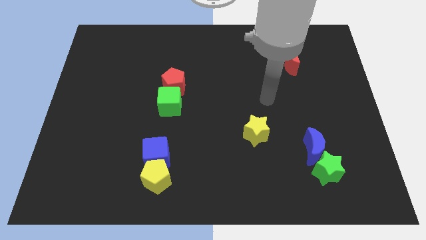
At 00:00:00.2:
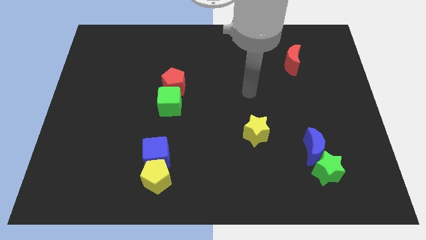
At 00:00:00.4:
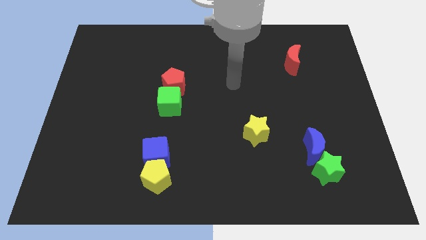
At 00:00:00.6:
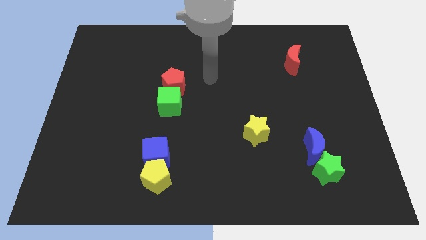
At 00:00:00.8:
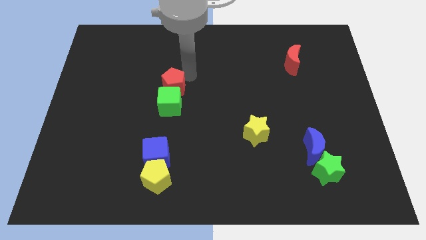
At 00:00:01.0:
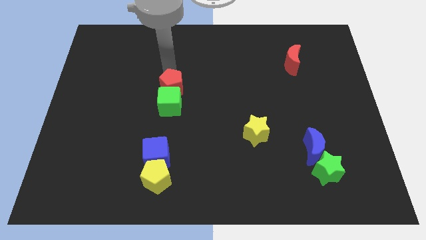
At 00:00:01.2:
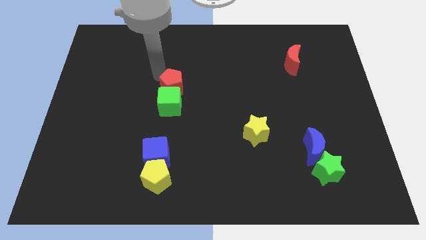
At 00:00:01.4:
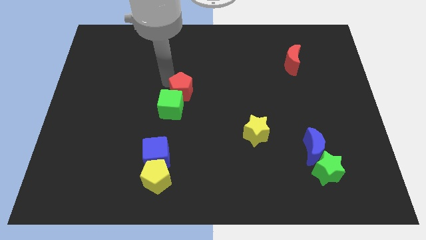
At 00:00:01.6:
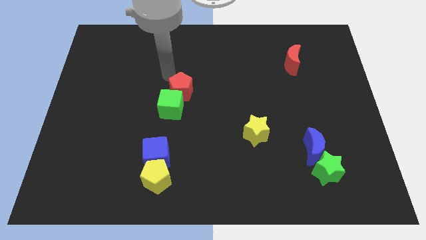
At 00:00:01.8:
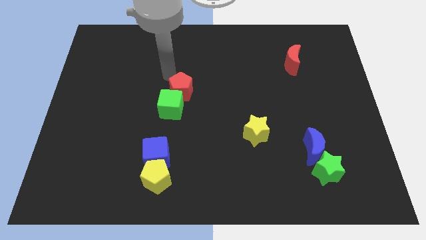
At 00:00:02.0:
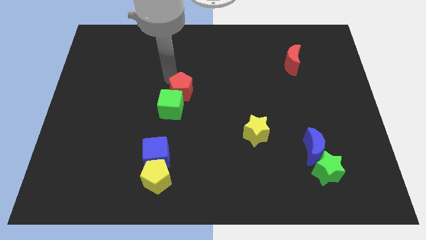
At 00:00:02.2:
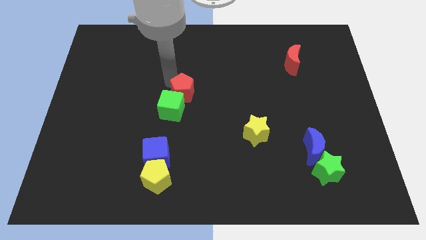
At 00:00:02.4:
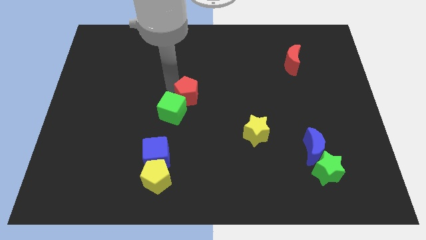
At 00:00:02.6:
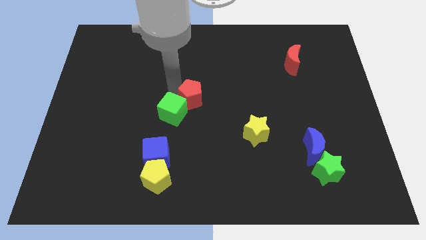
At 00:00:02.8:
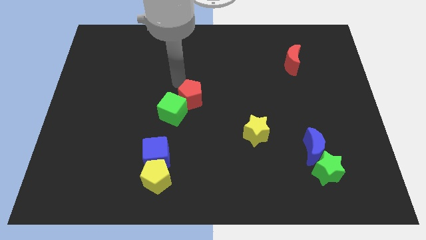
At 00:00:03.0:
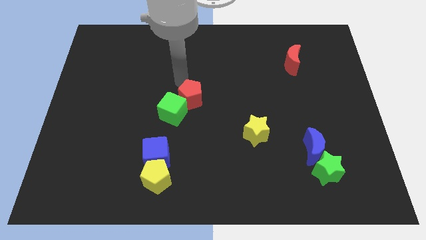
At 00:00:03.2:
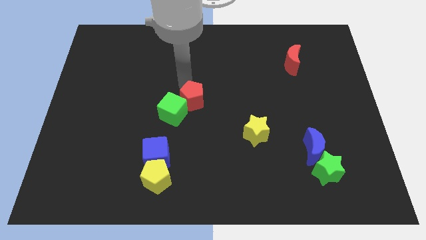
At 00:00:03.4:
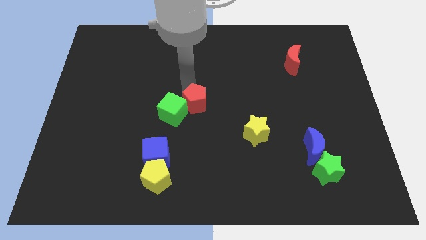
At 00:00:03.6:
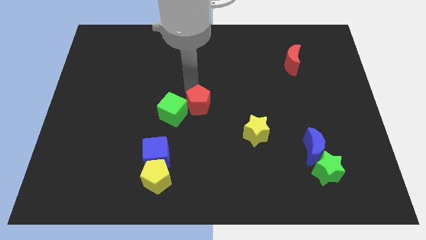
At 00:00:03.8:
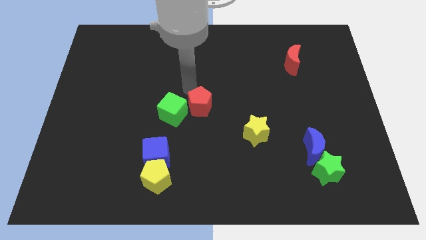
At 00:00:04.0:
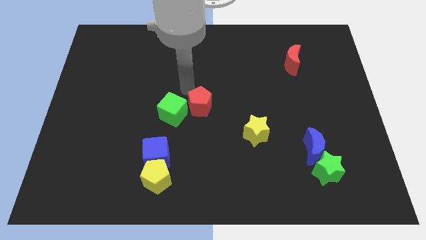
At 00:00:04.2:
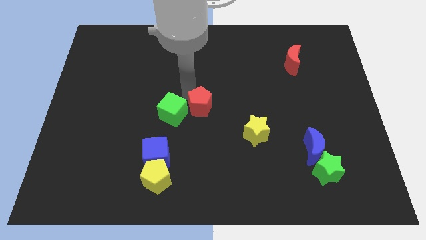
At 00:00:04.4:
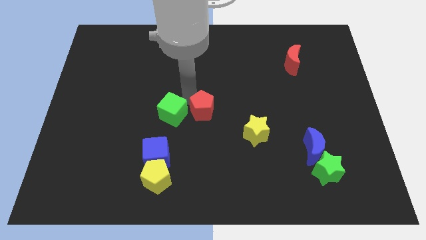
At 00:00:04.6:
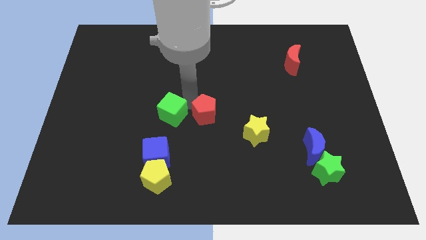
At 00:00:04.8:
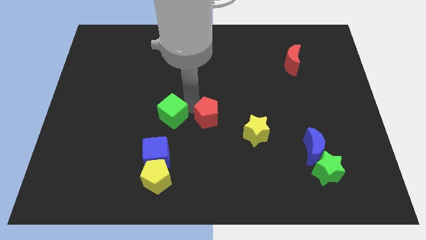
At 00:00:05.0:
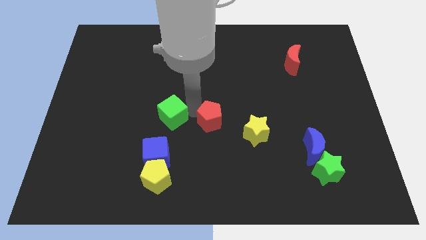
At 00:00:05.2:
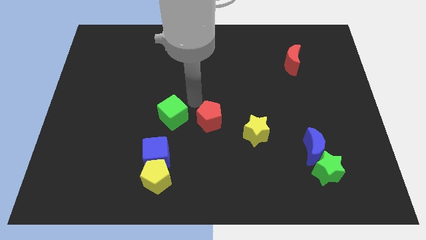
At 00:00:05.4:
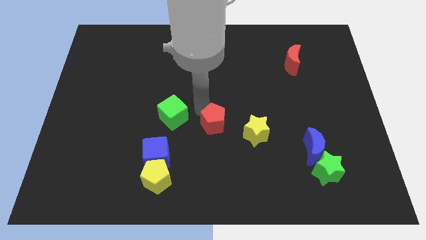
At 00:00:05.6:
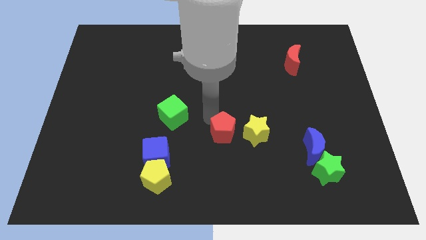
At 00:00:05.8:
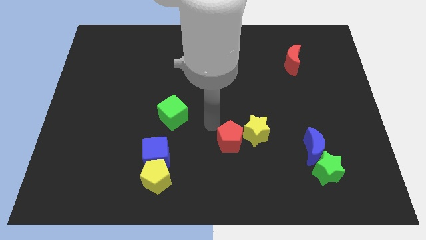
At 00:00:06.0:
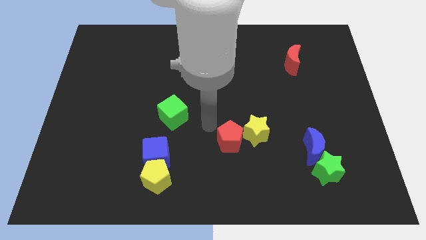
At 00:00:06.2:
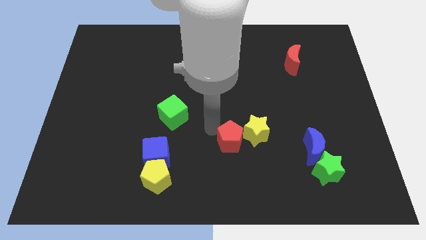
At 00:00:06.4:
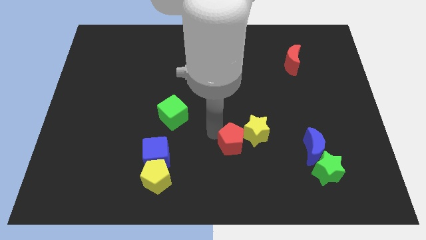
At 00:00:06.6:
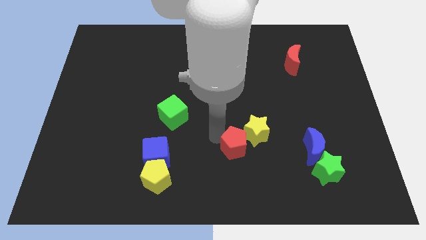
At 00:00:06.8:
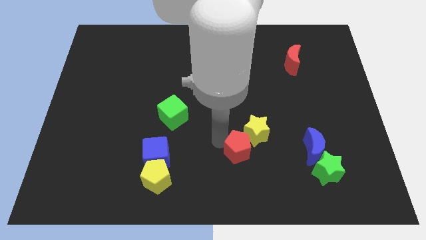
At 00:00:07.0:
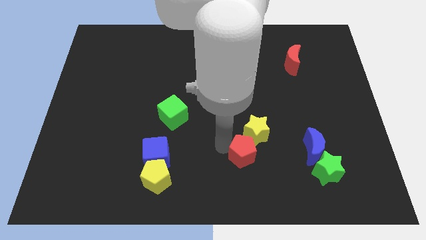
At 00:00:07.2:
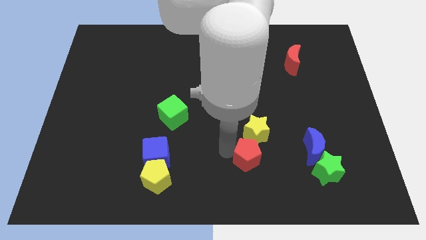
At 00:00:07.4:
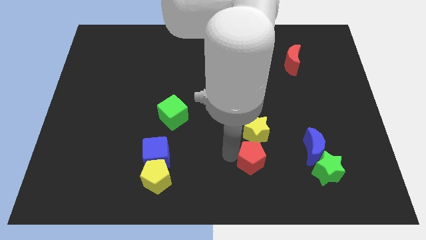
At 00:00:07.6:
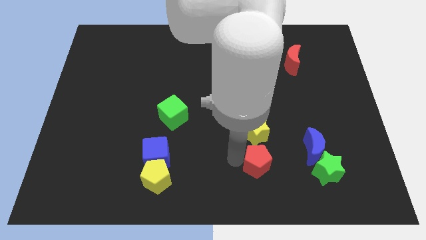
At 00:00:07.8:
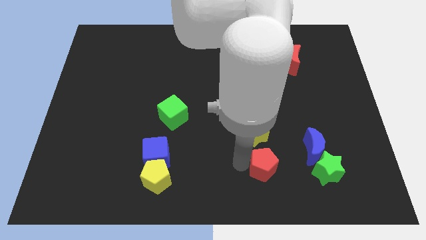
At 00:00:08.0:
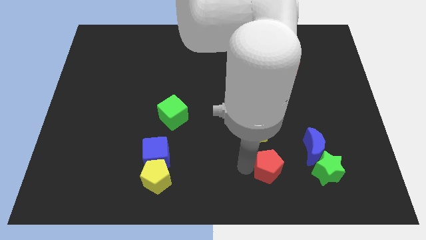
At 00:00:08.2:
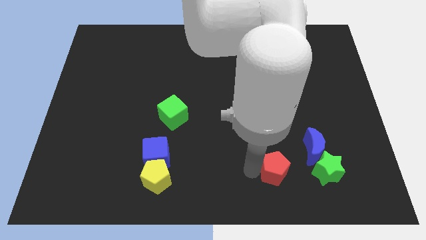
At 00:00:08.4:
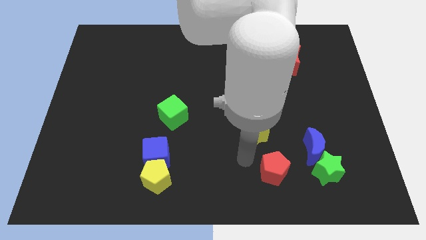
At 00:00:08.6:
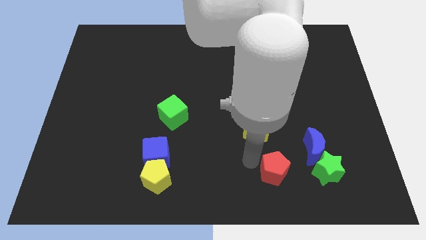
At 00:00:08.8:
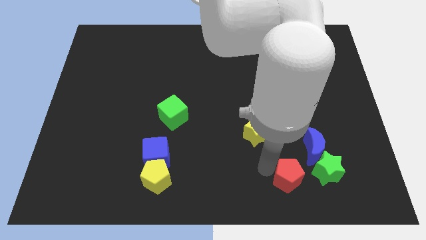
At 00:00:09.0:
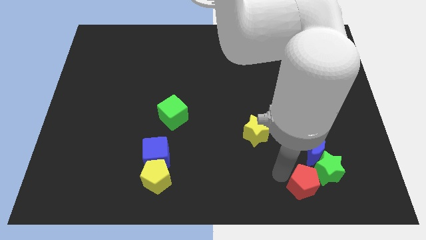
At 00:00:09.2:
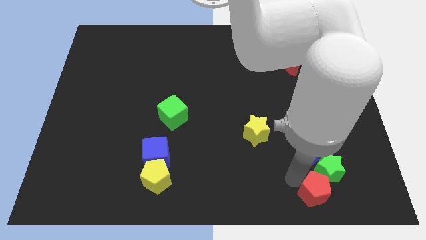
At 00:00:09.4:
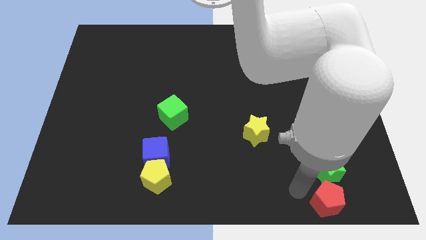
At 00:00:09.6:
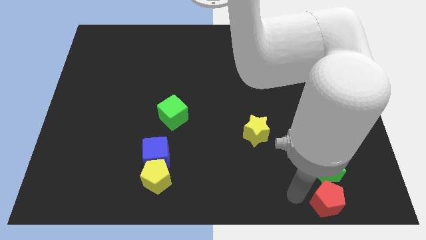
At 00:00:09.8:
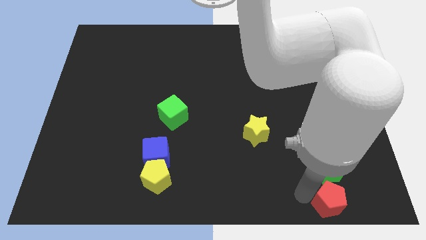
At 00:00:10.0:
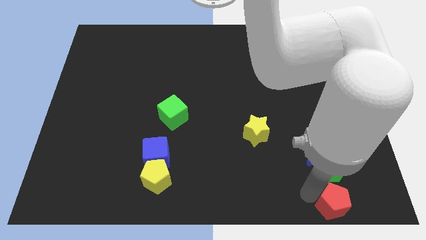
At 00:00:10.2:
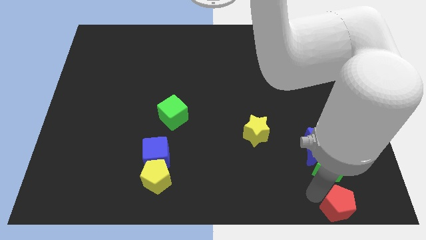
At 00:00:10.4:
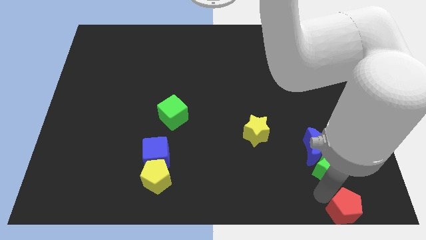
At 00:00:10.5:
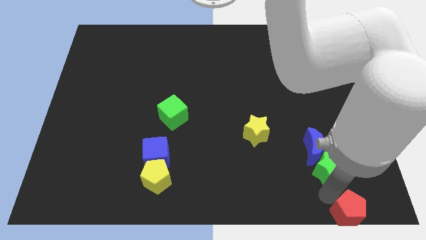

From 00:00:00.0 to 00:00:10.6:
put the red pentagon to the lower right corner

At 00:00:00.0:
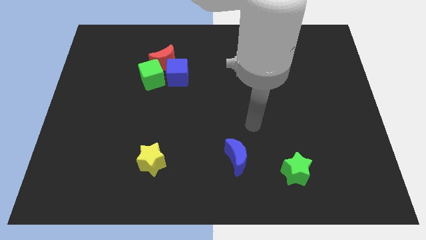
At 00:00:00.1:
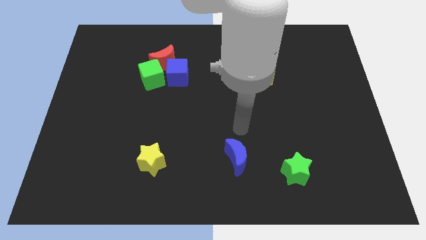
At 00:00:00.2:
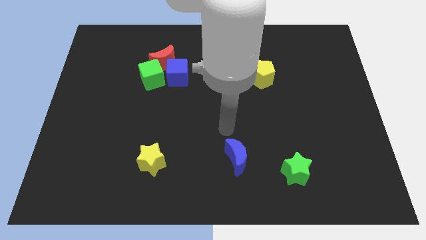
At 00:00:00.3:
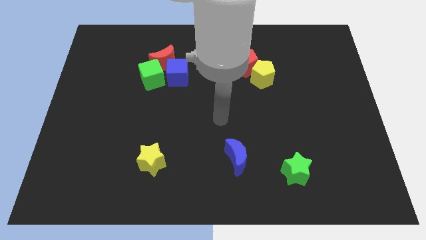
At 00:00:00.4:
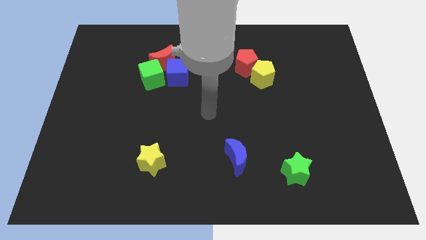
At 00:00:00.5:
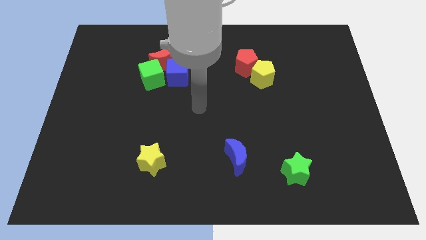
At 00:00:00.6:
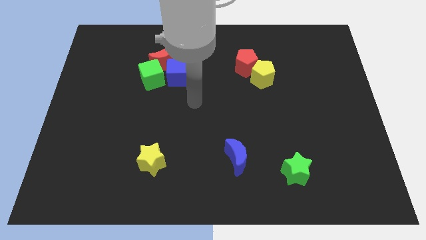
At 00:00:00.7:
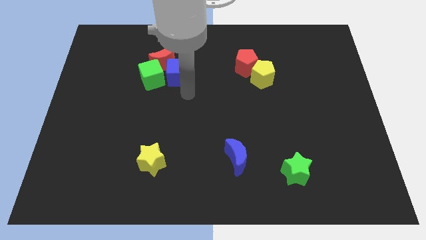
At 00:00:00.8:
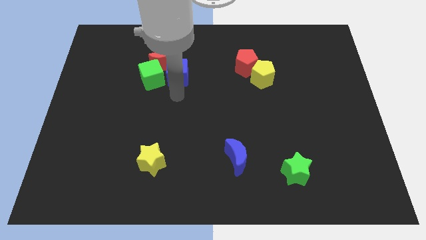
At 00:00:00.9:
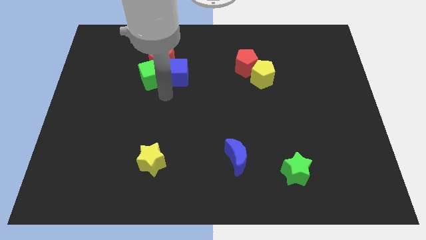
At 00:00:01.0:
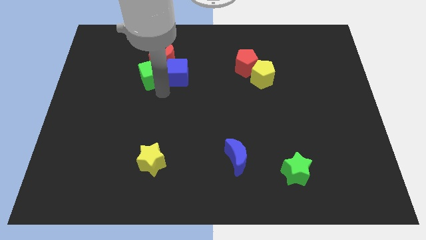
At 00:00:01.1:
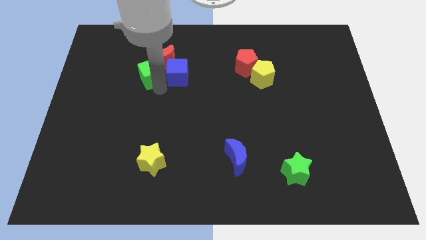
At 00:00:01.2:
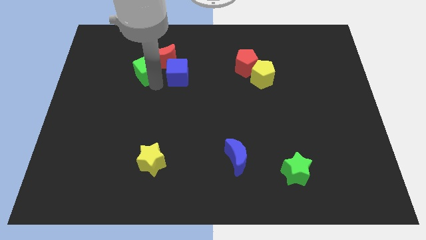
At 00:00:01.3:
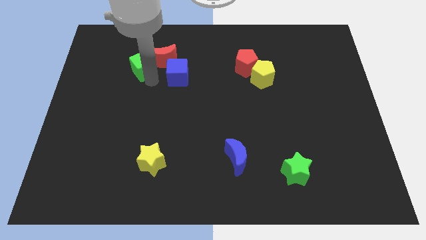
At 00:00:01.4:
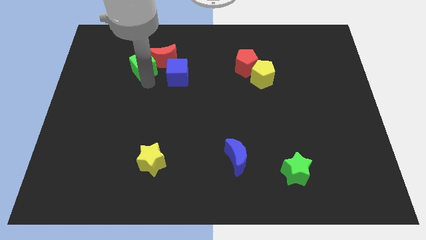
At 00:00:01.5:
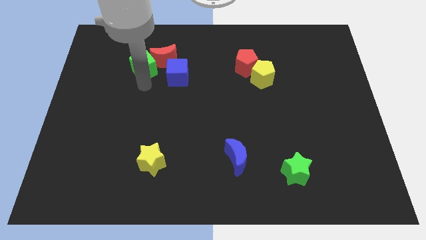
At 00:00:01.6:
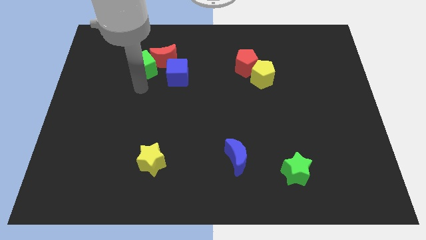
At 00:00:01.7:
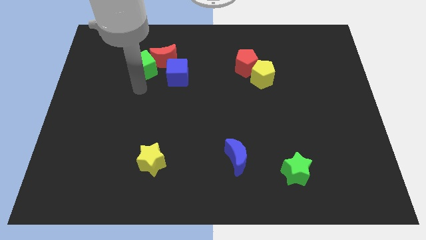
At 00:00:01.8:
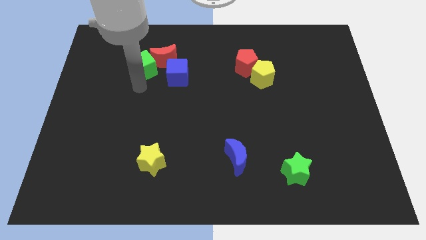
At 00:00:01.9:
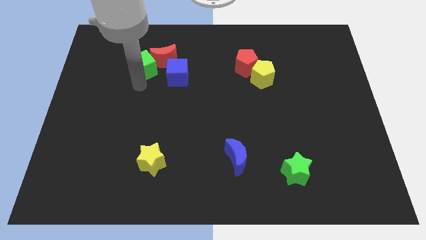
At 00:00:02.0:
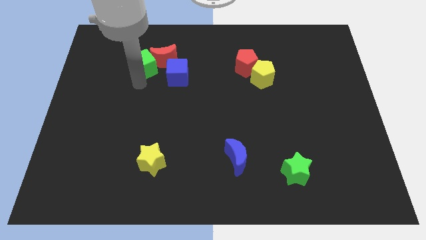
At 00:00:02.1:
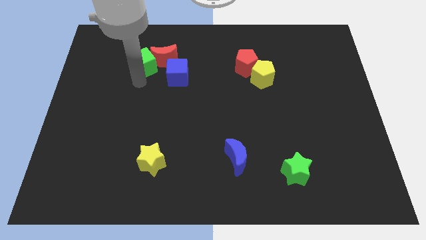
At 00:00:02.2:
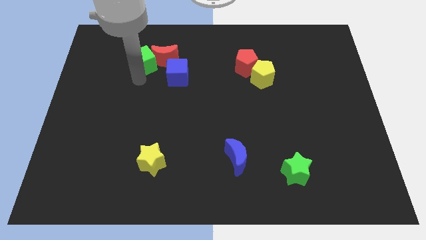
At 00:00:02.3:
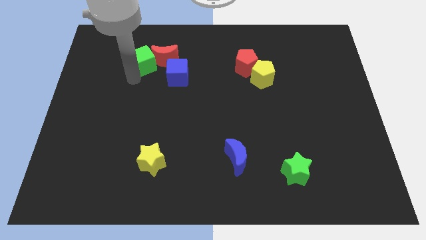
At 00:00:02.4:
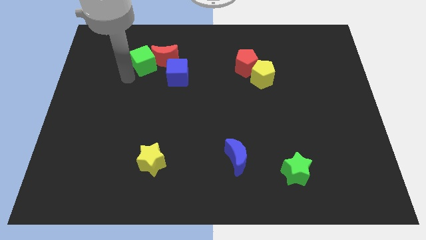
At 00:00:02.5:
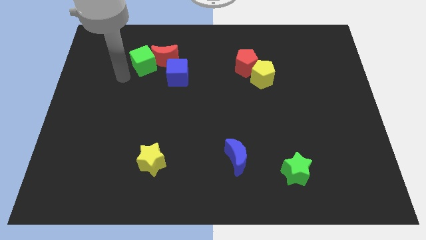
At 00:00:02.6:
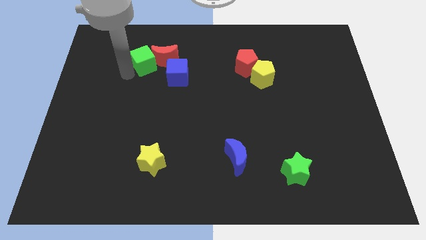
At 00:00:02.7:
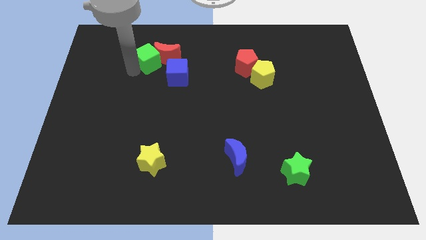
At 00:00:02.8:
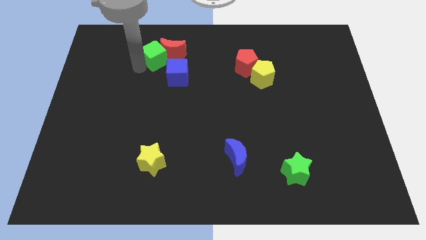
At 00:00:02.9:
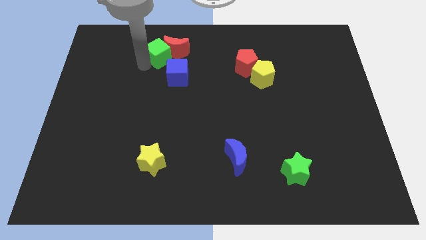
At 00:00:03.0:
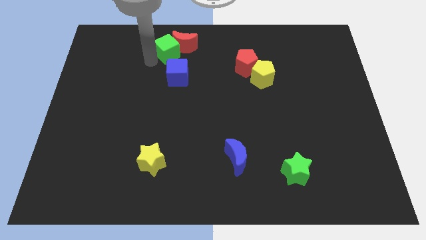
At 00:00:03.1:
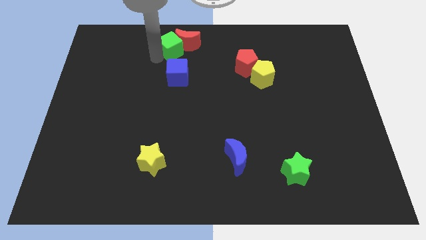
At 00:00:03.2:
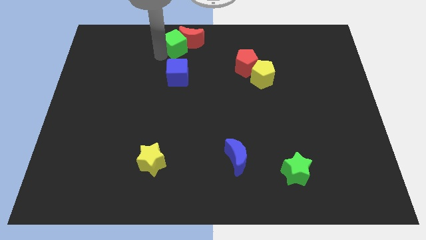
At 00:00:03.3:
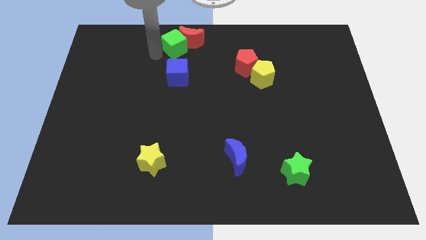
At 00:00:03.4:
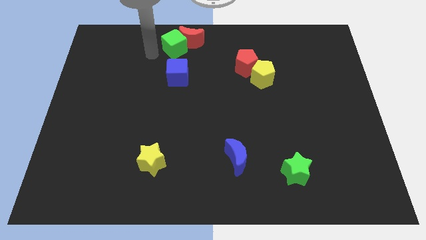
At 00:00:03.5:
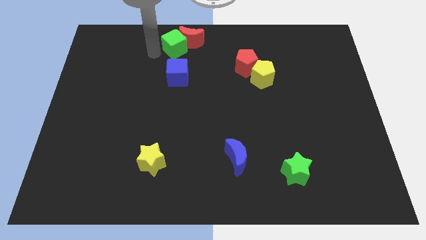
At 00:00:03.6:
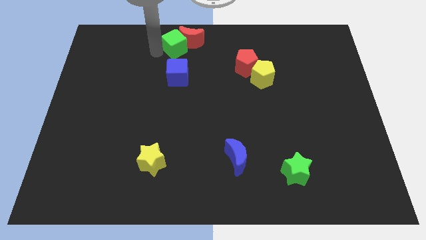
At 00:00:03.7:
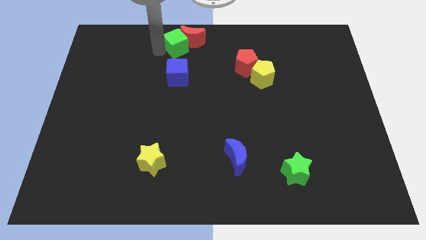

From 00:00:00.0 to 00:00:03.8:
push the green cube to the top side
